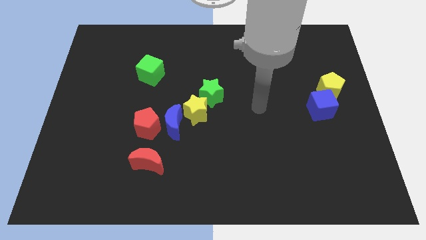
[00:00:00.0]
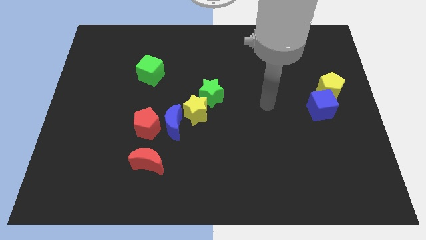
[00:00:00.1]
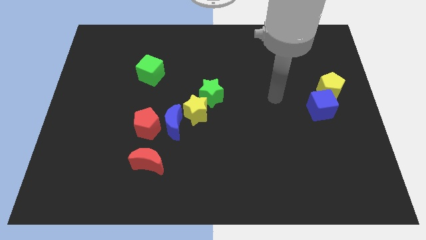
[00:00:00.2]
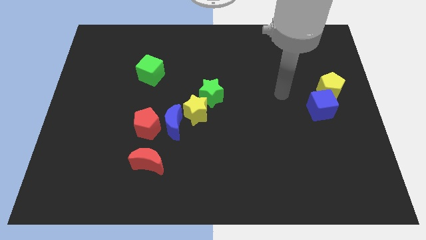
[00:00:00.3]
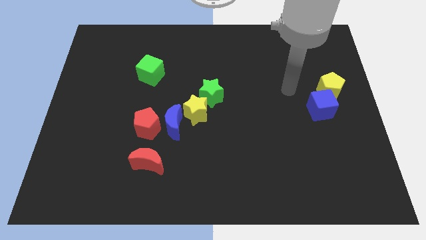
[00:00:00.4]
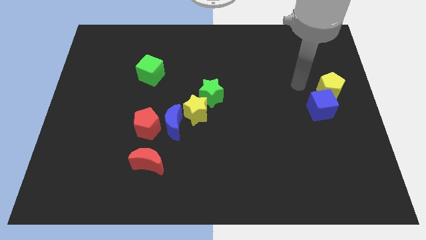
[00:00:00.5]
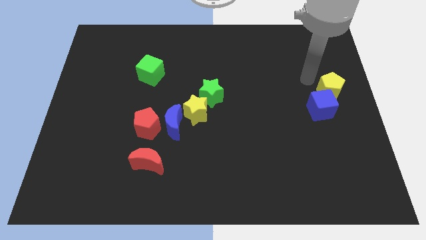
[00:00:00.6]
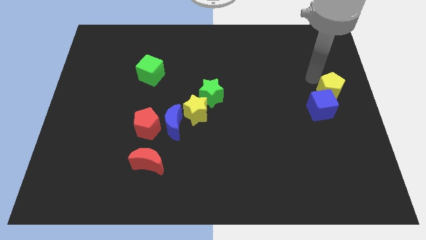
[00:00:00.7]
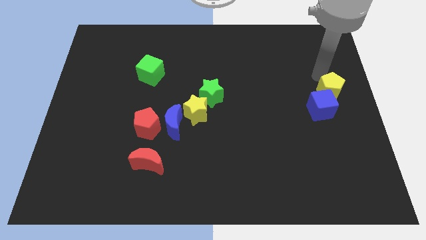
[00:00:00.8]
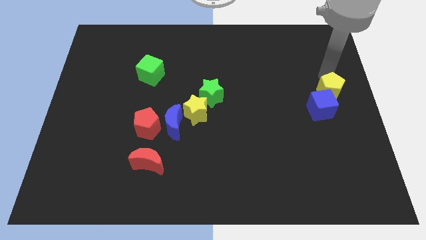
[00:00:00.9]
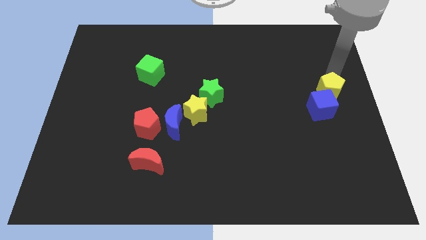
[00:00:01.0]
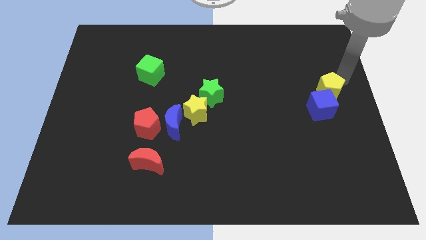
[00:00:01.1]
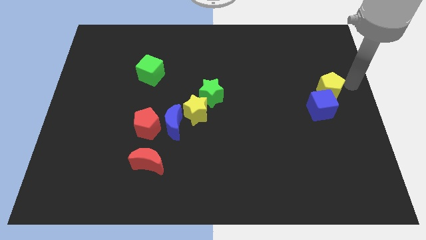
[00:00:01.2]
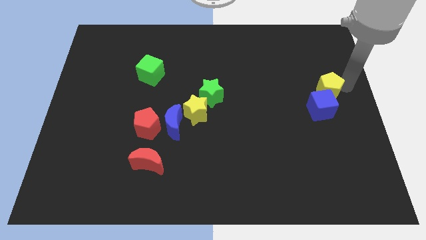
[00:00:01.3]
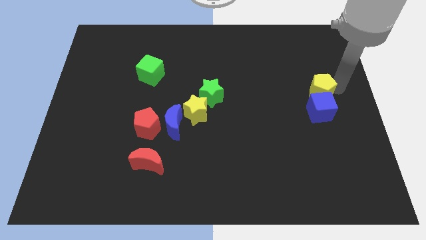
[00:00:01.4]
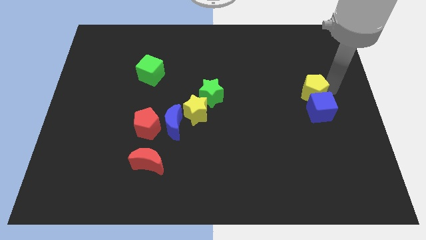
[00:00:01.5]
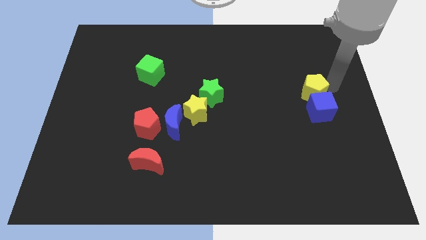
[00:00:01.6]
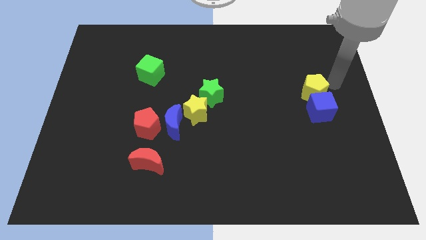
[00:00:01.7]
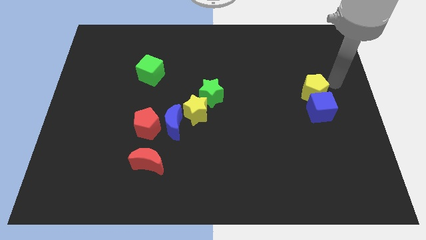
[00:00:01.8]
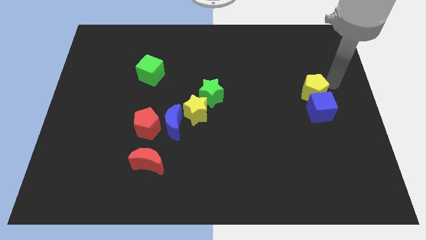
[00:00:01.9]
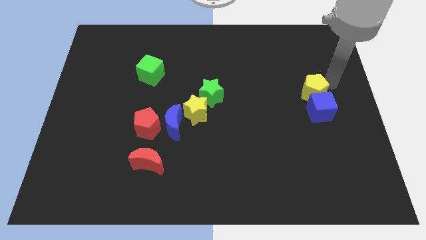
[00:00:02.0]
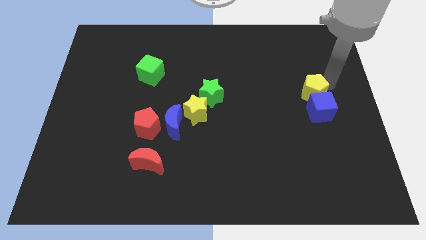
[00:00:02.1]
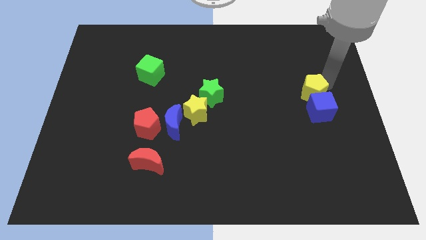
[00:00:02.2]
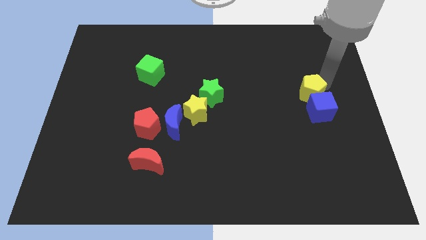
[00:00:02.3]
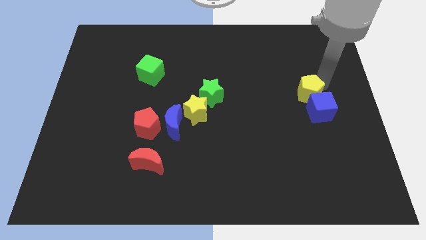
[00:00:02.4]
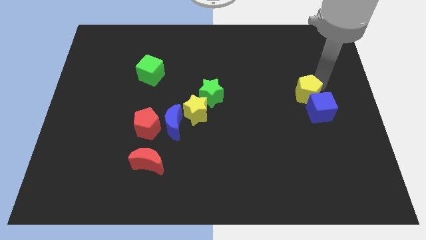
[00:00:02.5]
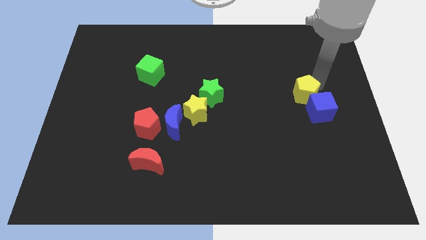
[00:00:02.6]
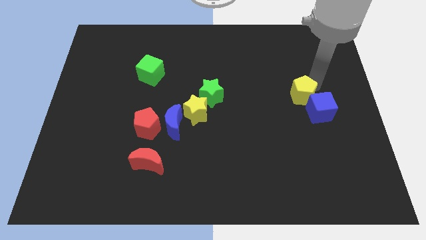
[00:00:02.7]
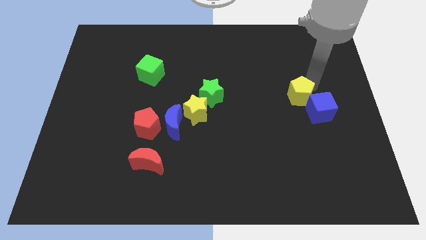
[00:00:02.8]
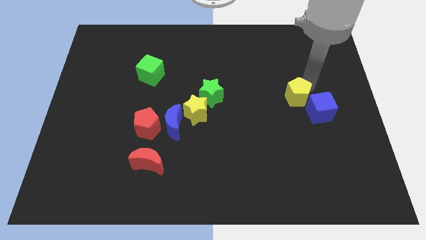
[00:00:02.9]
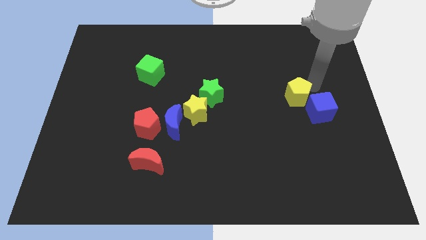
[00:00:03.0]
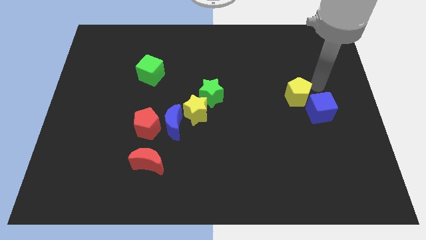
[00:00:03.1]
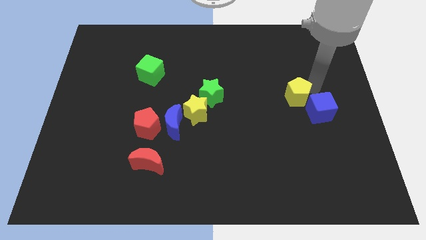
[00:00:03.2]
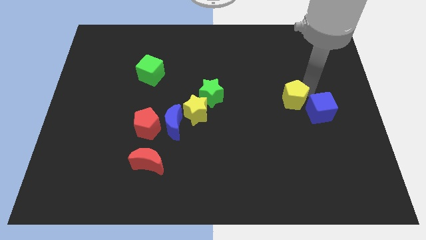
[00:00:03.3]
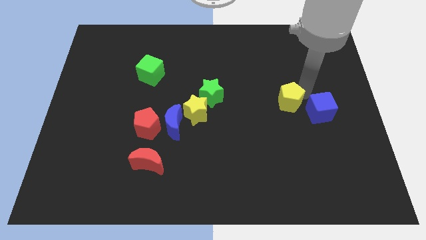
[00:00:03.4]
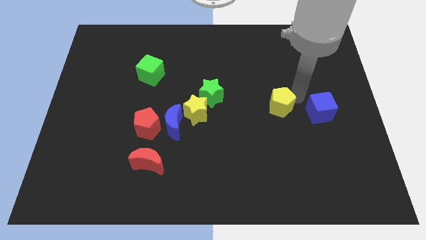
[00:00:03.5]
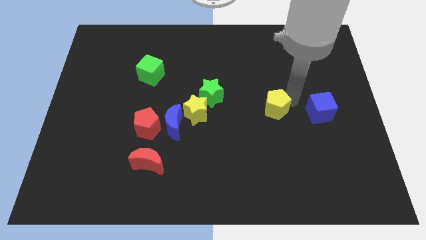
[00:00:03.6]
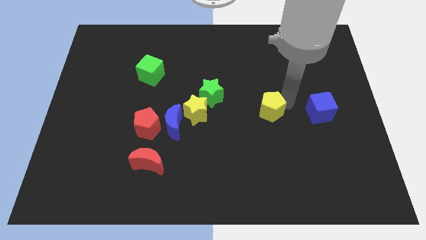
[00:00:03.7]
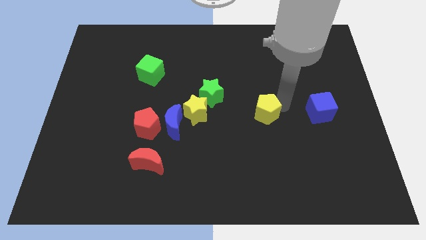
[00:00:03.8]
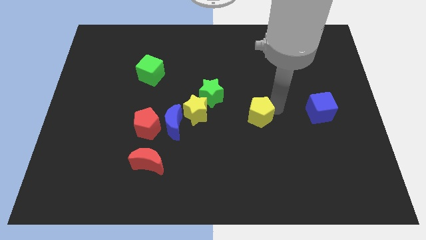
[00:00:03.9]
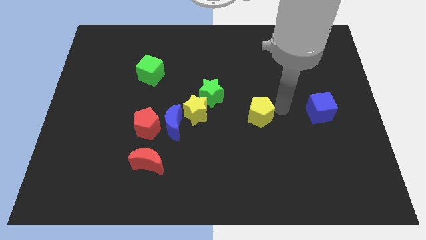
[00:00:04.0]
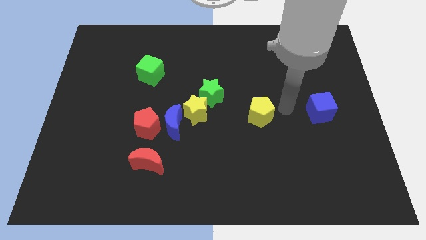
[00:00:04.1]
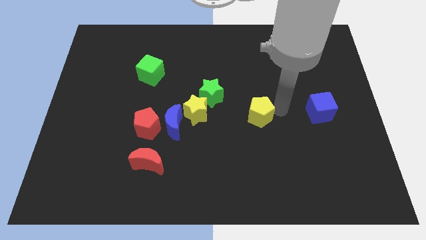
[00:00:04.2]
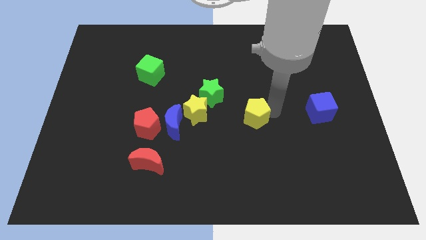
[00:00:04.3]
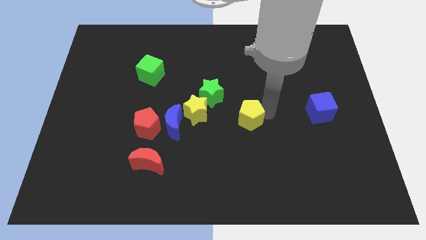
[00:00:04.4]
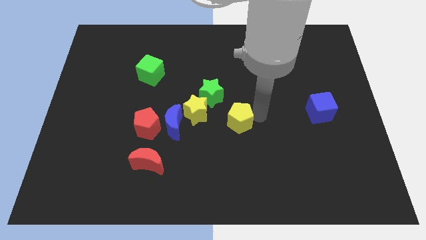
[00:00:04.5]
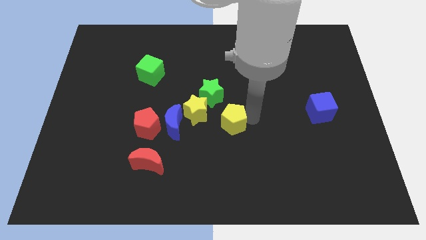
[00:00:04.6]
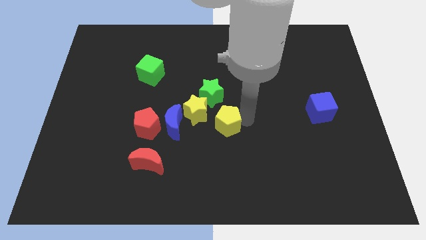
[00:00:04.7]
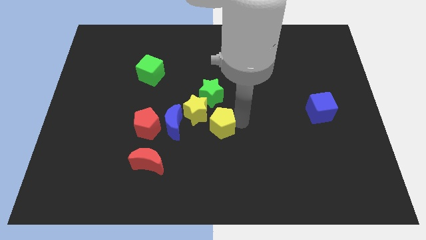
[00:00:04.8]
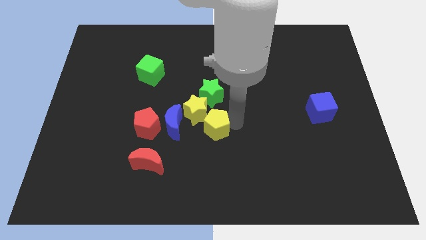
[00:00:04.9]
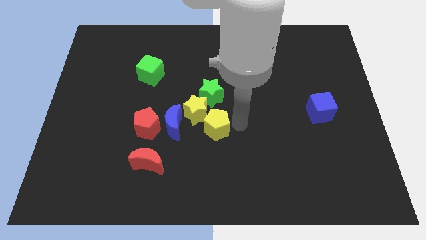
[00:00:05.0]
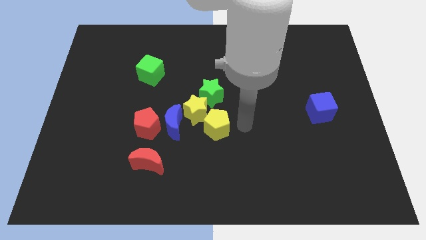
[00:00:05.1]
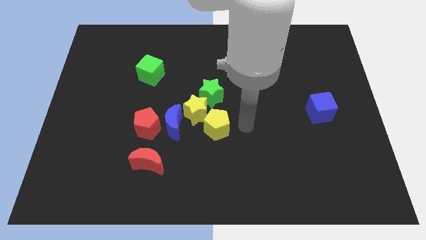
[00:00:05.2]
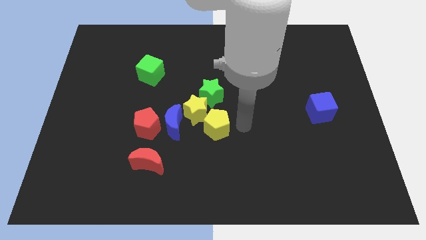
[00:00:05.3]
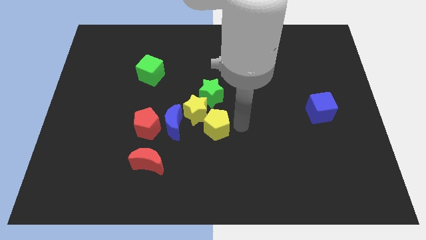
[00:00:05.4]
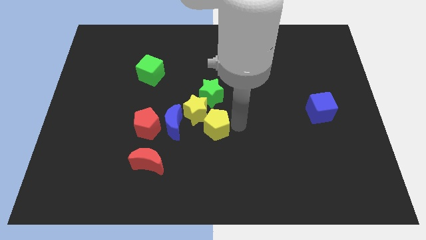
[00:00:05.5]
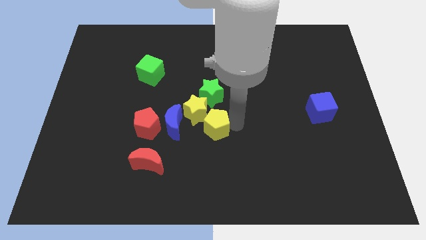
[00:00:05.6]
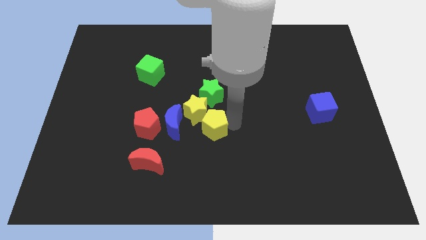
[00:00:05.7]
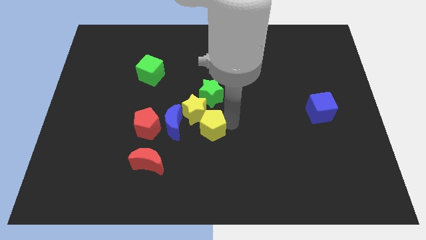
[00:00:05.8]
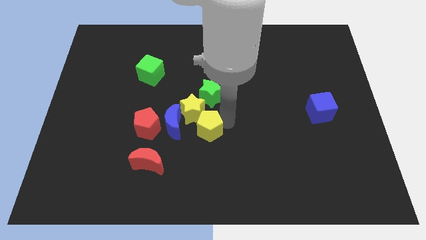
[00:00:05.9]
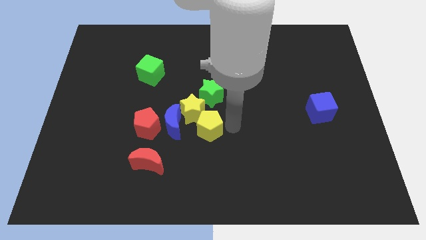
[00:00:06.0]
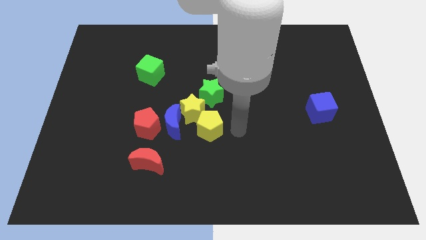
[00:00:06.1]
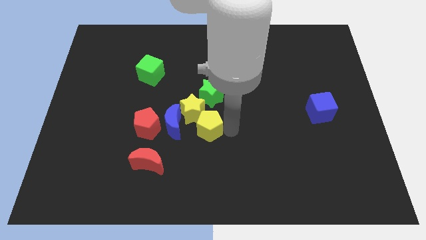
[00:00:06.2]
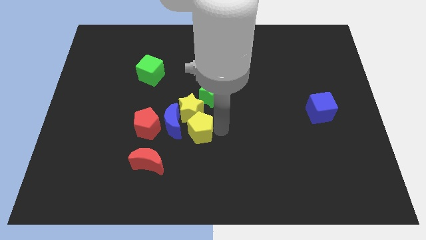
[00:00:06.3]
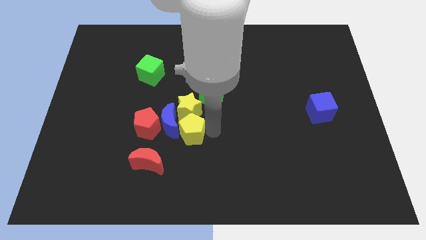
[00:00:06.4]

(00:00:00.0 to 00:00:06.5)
slide the yellow pentagon to the blue moon

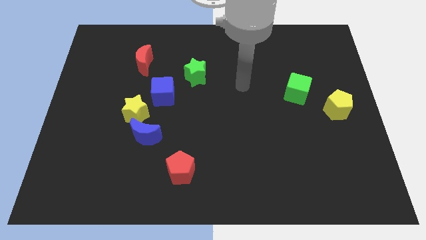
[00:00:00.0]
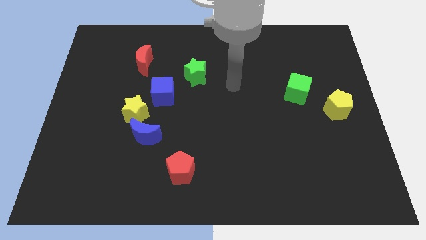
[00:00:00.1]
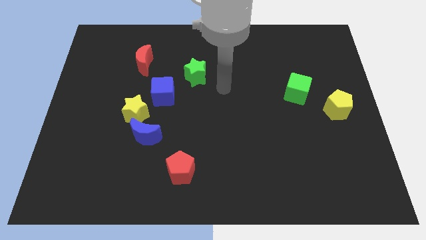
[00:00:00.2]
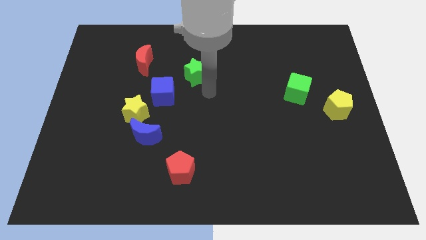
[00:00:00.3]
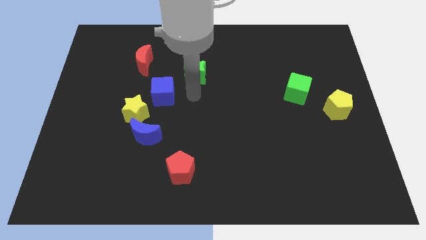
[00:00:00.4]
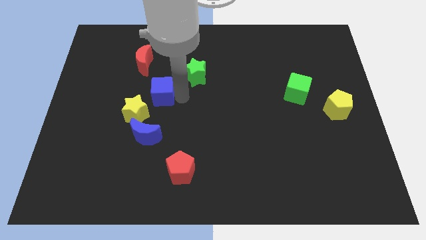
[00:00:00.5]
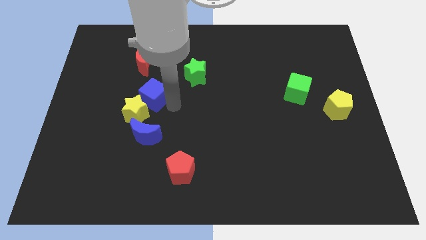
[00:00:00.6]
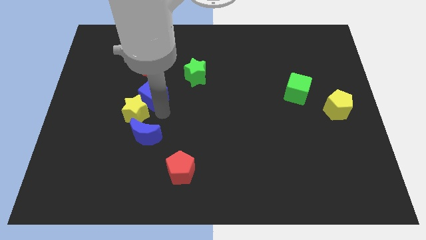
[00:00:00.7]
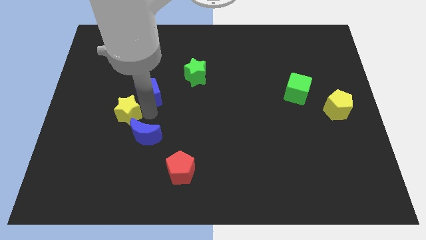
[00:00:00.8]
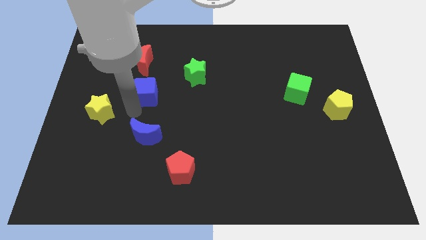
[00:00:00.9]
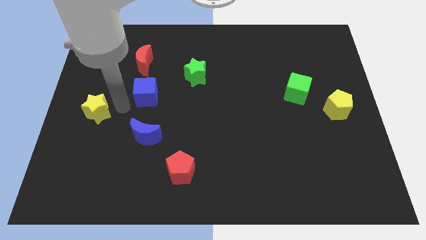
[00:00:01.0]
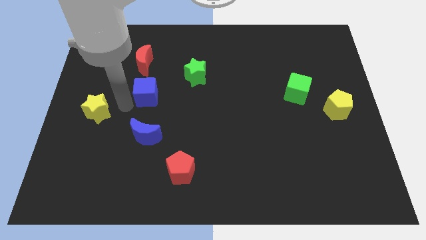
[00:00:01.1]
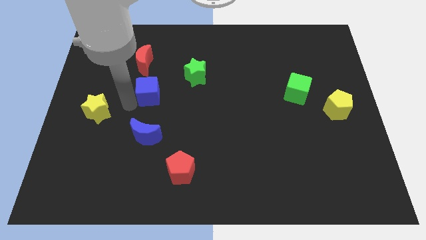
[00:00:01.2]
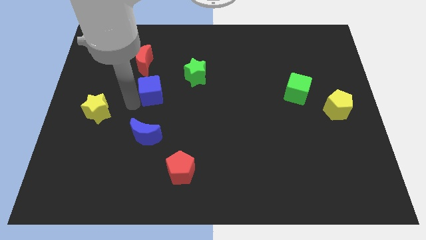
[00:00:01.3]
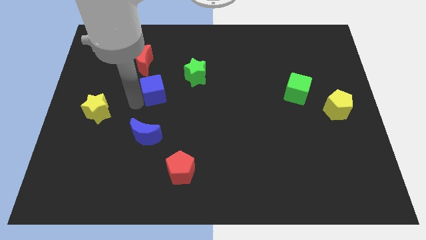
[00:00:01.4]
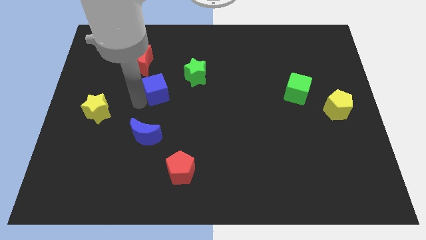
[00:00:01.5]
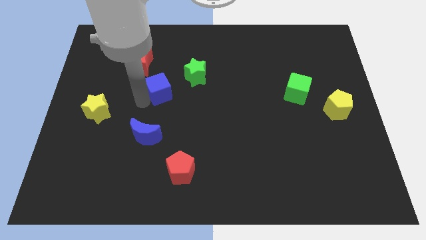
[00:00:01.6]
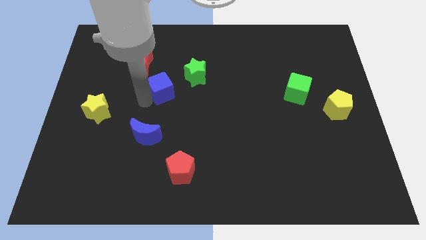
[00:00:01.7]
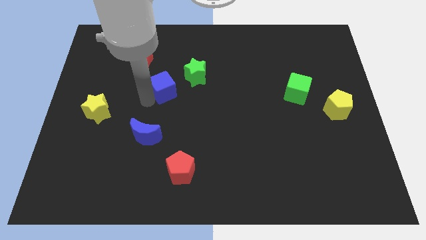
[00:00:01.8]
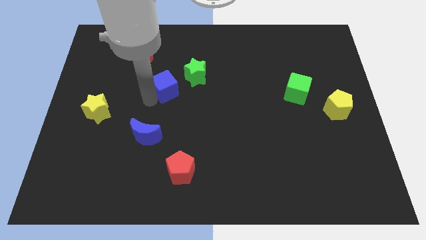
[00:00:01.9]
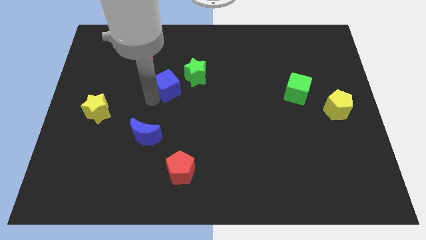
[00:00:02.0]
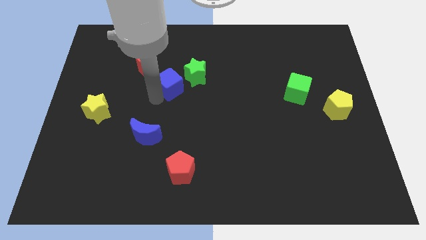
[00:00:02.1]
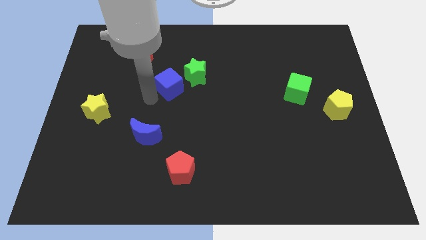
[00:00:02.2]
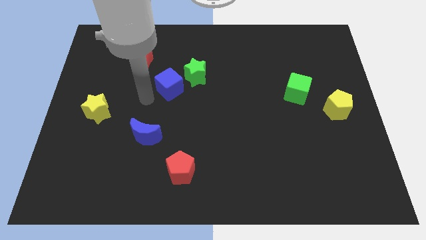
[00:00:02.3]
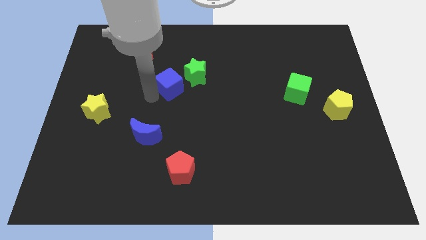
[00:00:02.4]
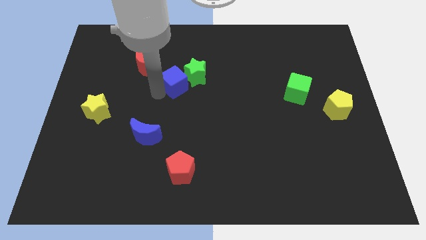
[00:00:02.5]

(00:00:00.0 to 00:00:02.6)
put the blue cube to the green star
